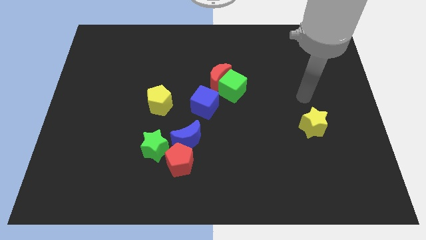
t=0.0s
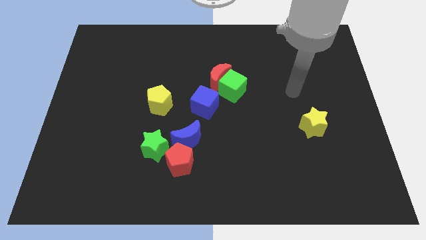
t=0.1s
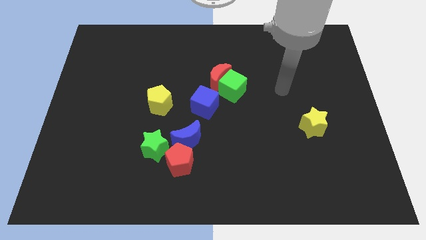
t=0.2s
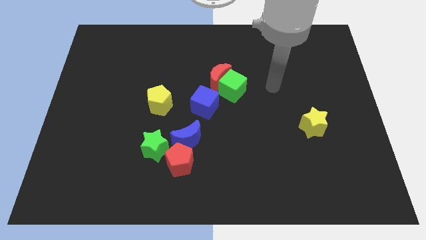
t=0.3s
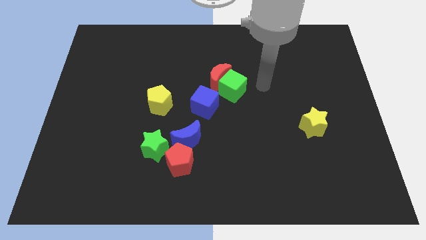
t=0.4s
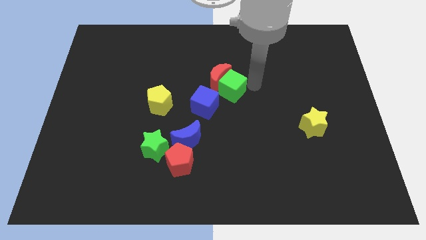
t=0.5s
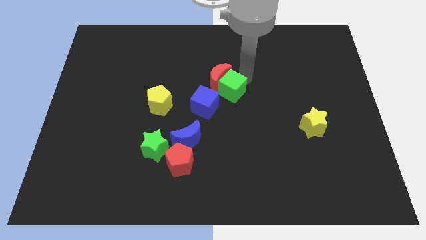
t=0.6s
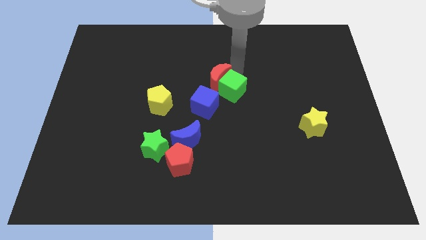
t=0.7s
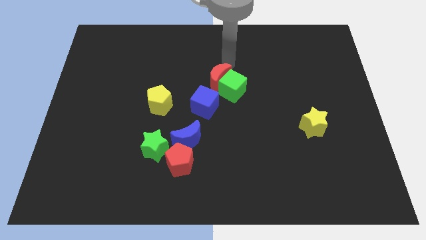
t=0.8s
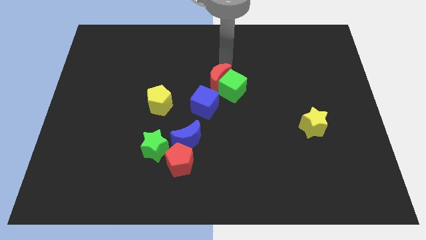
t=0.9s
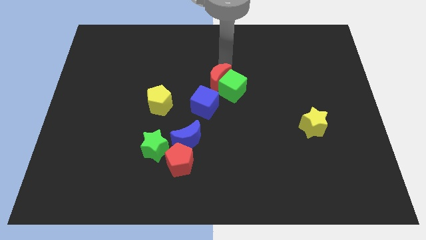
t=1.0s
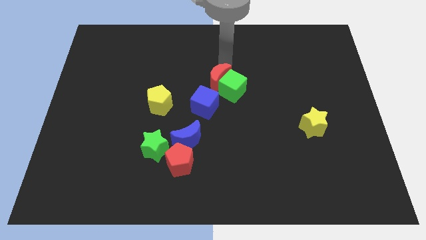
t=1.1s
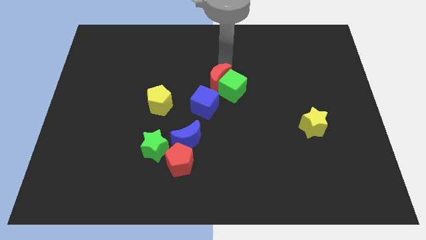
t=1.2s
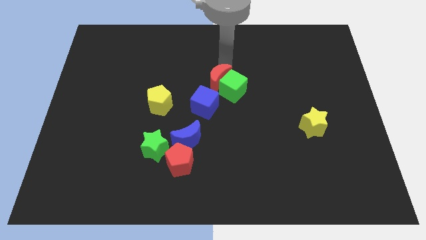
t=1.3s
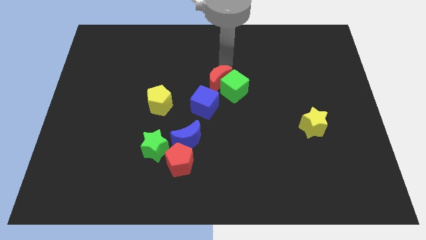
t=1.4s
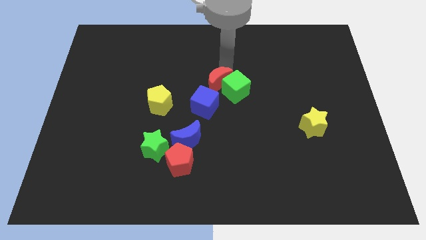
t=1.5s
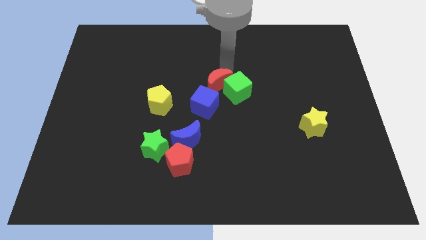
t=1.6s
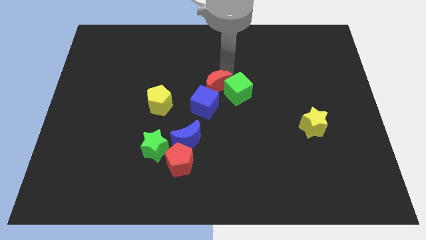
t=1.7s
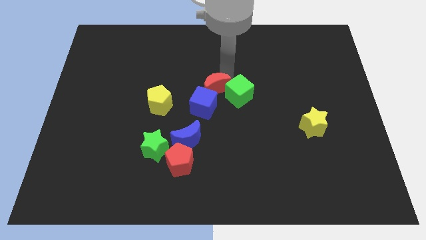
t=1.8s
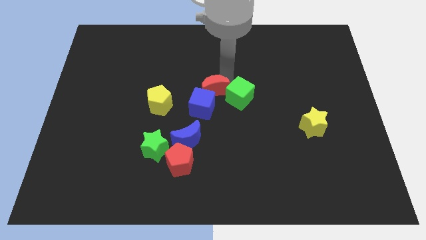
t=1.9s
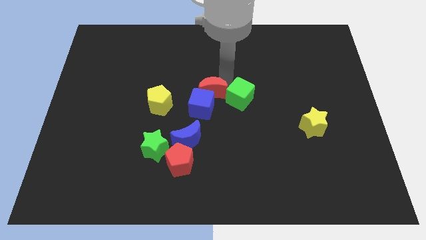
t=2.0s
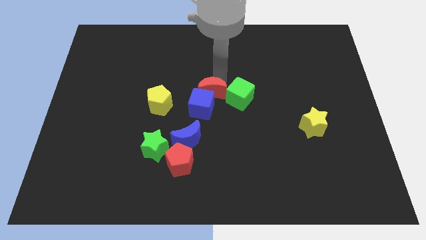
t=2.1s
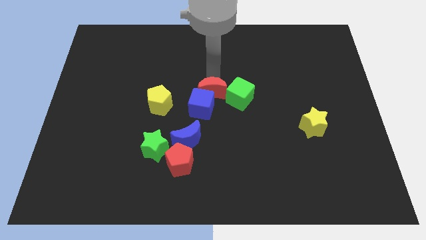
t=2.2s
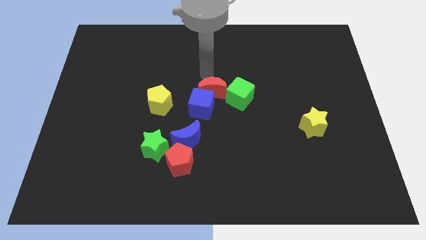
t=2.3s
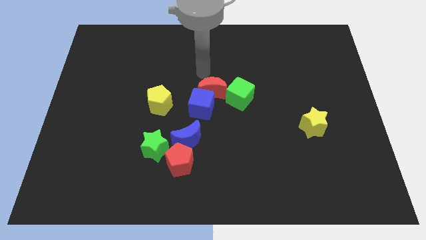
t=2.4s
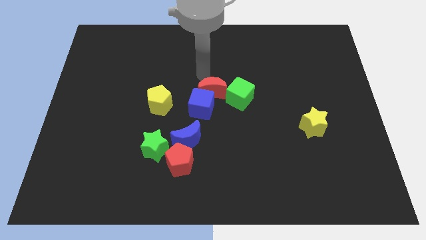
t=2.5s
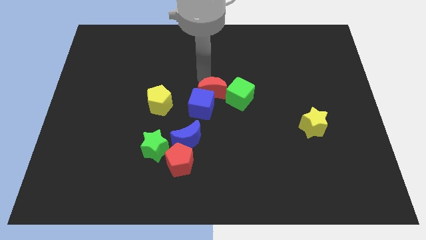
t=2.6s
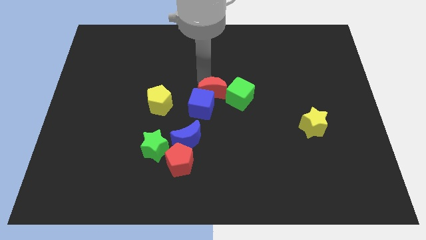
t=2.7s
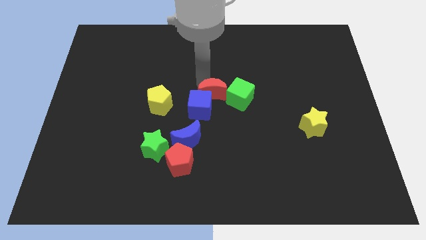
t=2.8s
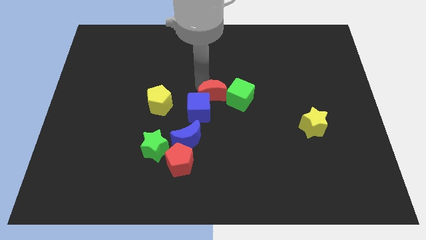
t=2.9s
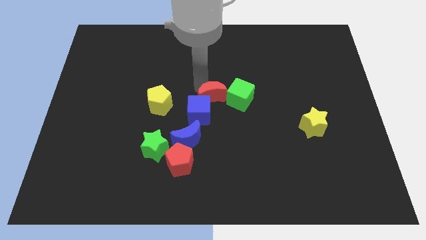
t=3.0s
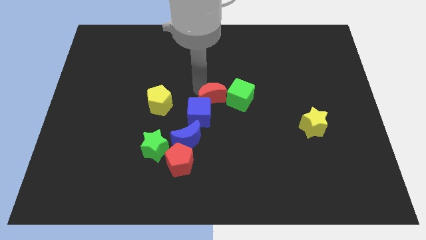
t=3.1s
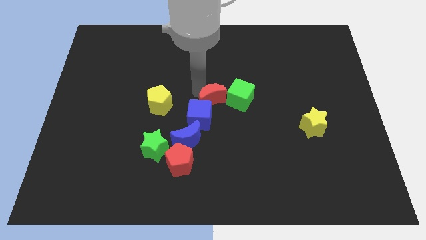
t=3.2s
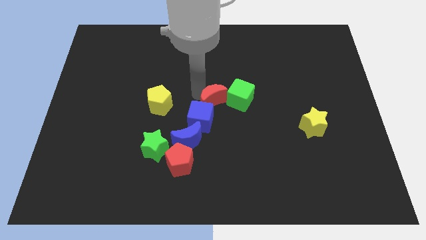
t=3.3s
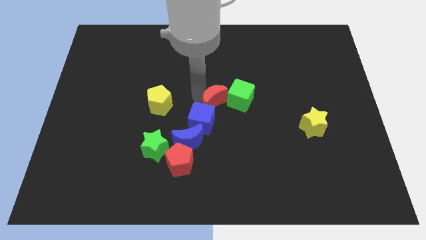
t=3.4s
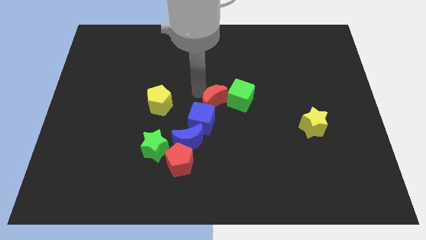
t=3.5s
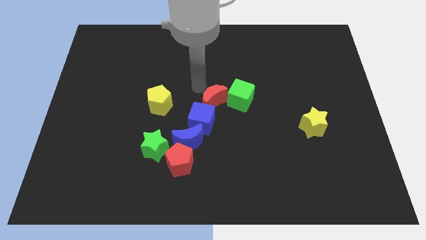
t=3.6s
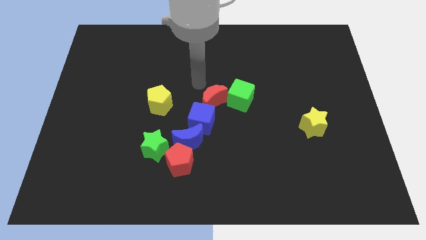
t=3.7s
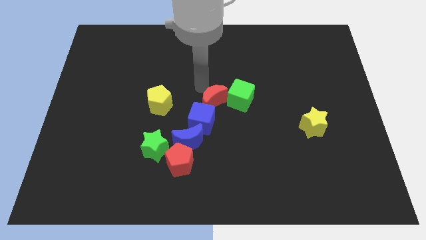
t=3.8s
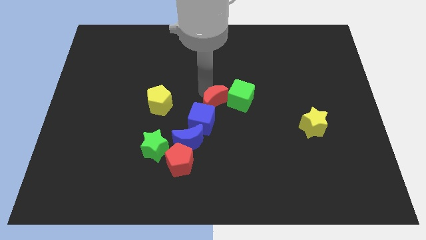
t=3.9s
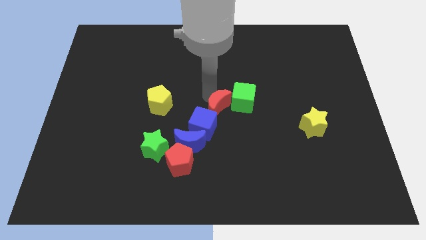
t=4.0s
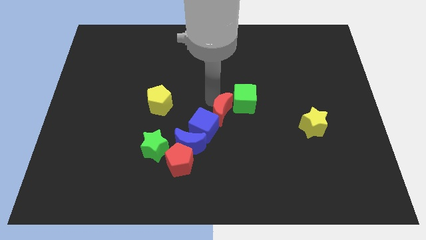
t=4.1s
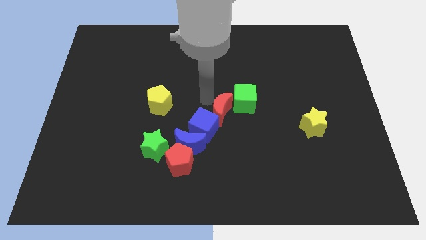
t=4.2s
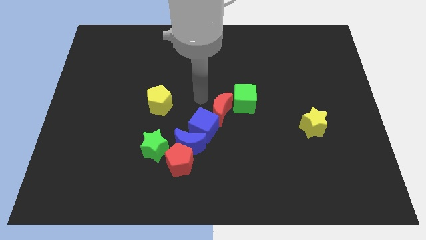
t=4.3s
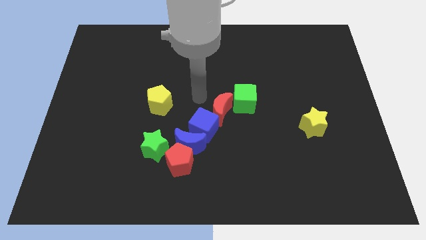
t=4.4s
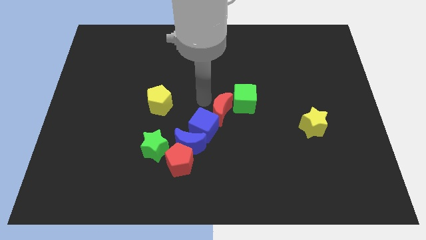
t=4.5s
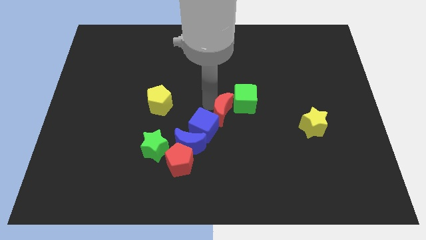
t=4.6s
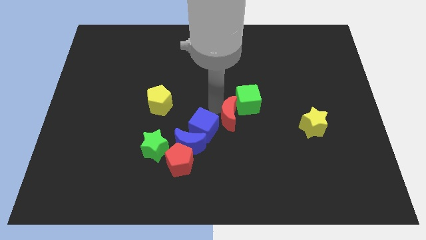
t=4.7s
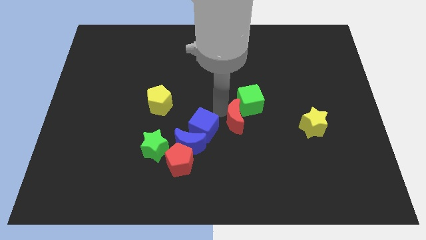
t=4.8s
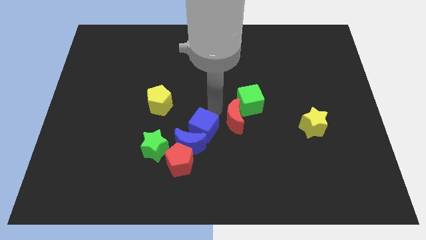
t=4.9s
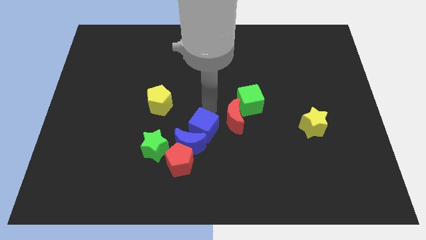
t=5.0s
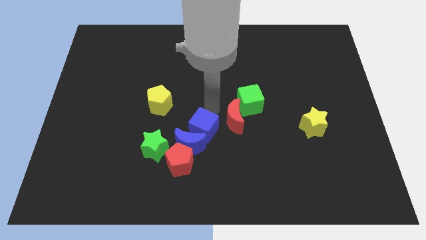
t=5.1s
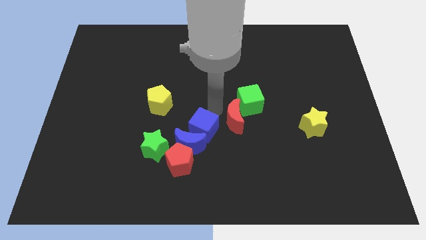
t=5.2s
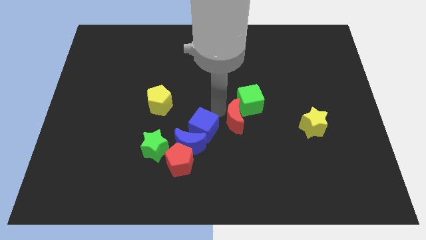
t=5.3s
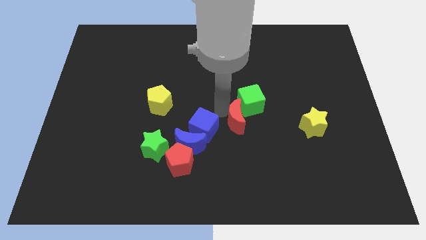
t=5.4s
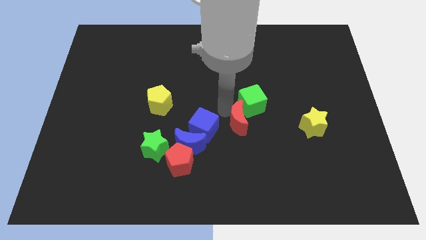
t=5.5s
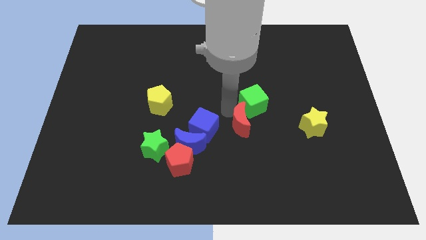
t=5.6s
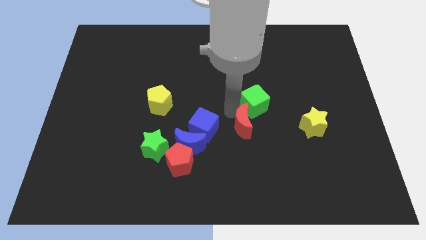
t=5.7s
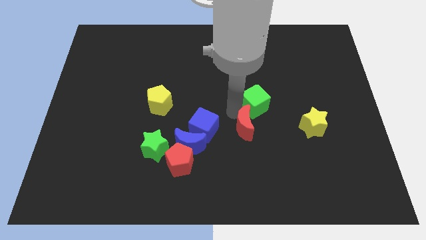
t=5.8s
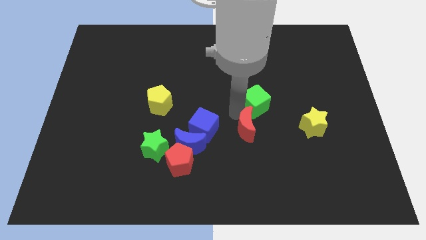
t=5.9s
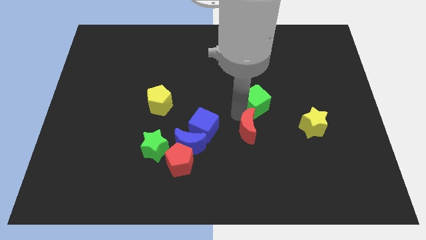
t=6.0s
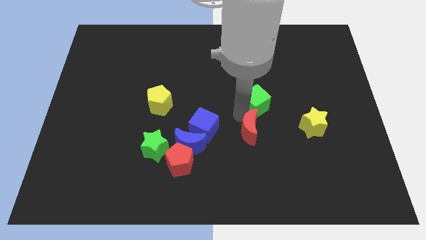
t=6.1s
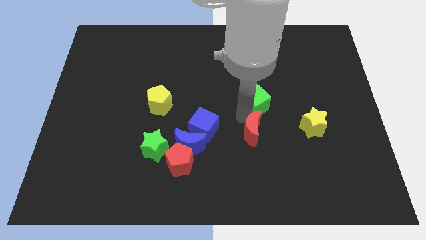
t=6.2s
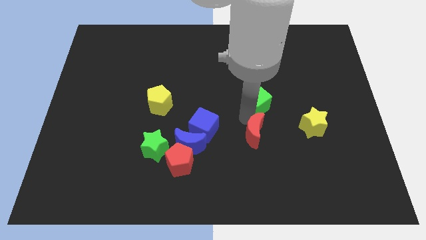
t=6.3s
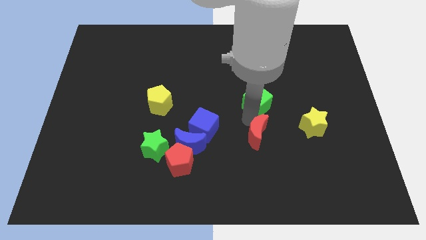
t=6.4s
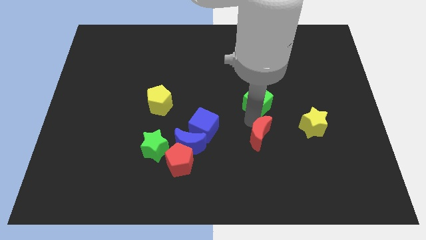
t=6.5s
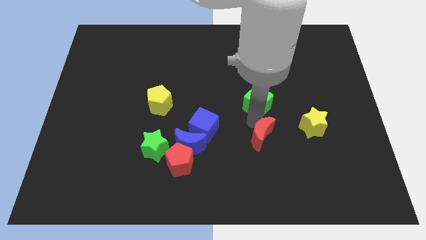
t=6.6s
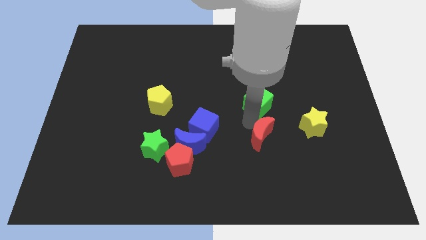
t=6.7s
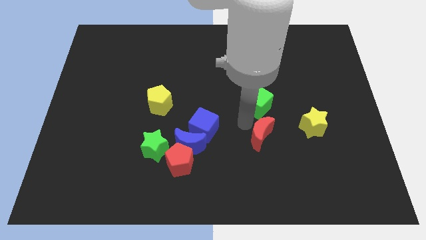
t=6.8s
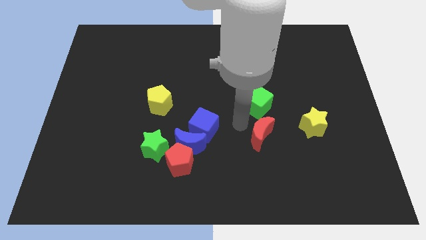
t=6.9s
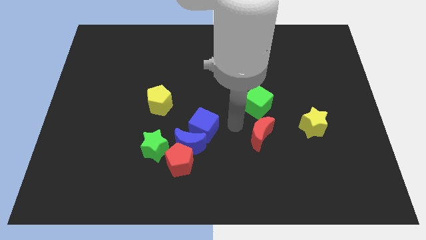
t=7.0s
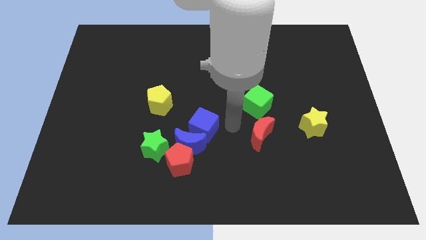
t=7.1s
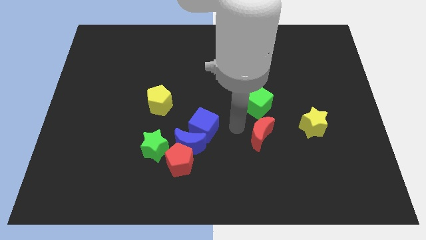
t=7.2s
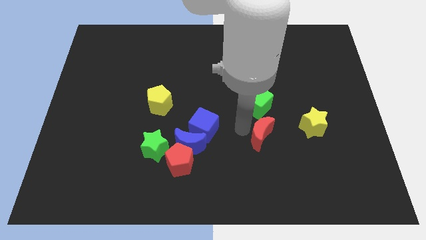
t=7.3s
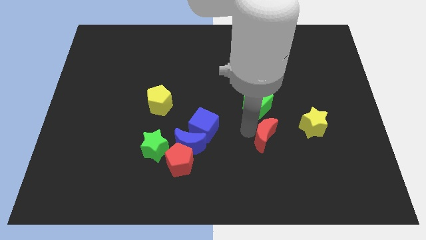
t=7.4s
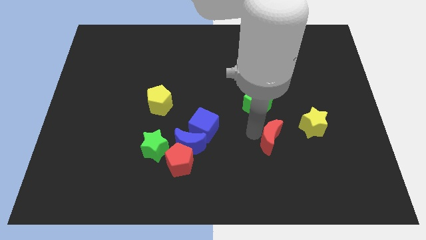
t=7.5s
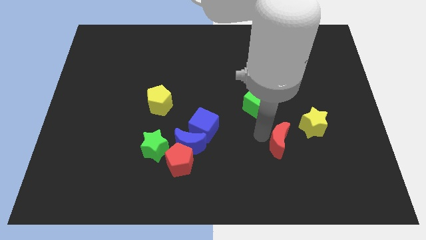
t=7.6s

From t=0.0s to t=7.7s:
push the red moon diagonally downwards and right

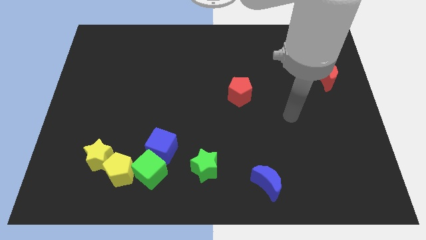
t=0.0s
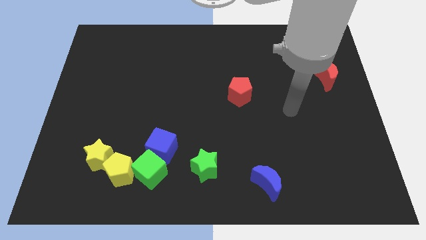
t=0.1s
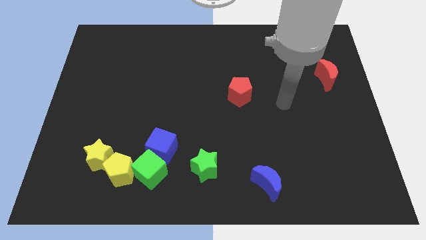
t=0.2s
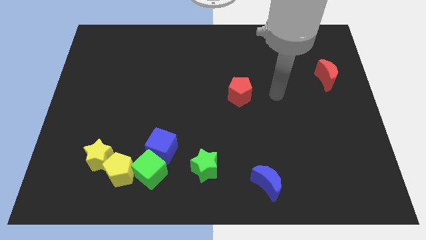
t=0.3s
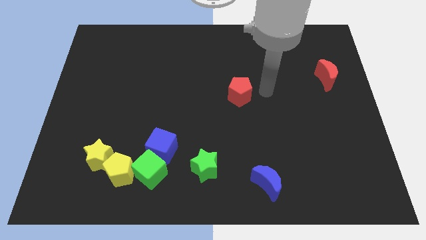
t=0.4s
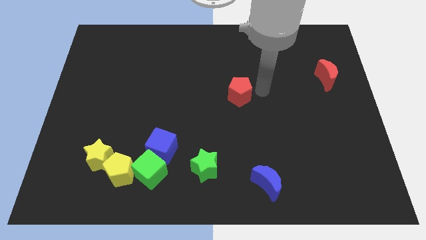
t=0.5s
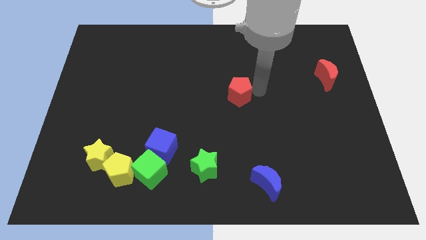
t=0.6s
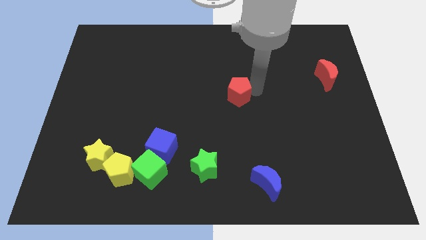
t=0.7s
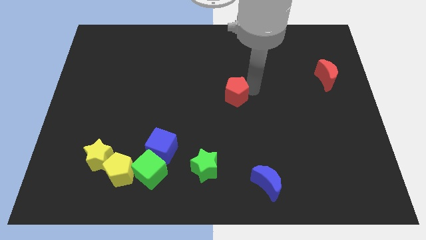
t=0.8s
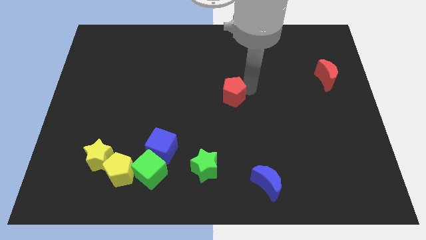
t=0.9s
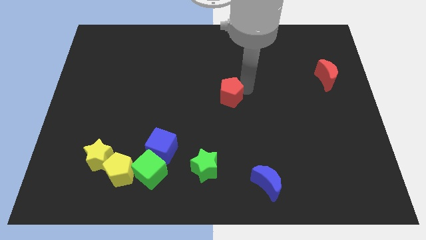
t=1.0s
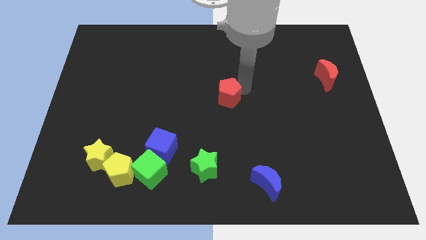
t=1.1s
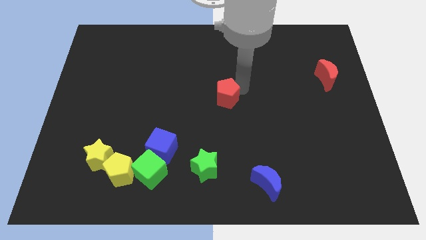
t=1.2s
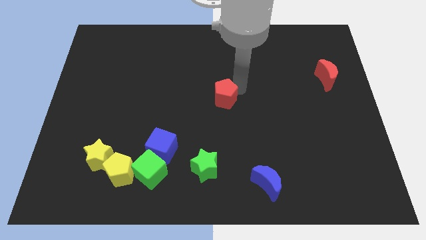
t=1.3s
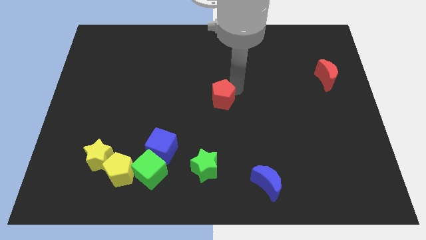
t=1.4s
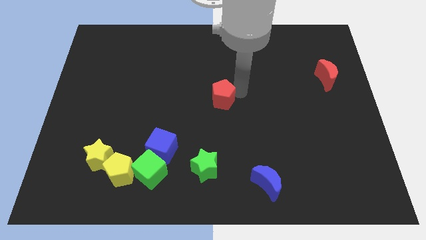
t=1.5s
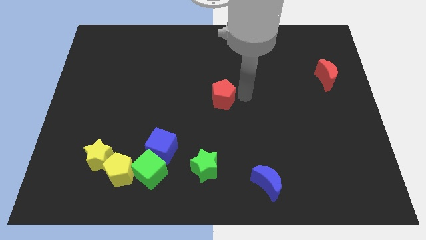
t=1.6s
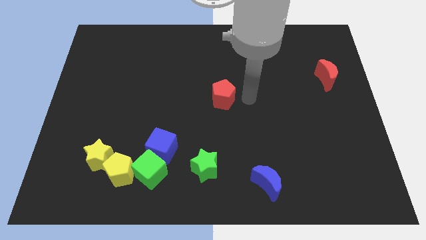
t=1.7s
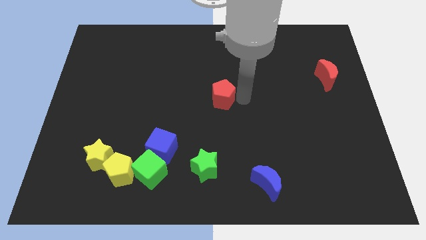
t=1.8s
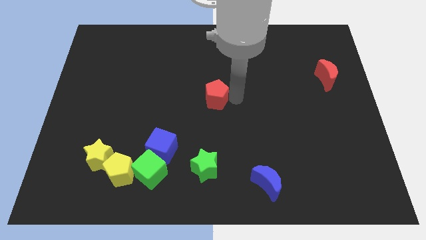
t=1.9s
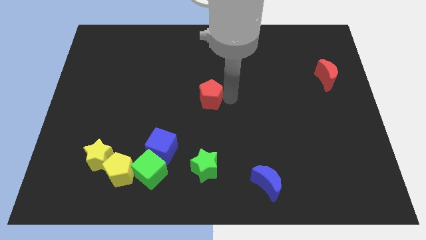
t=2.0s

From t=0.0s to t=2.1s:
move the red pentagon to the left a bit
